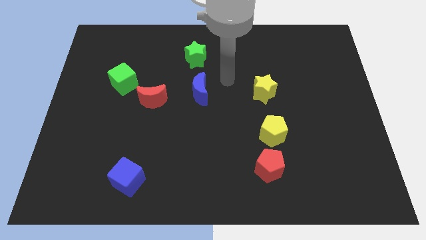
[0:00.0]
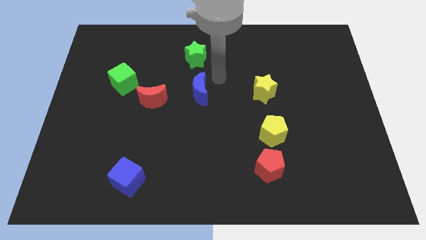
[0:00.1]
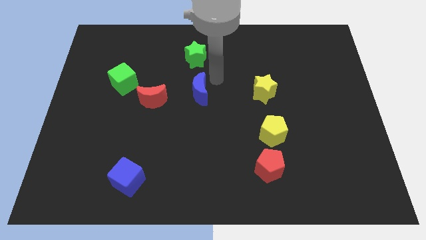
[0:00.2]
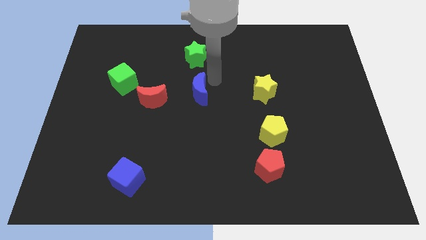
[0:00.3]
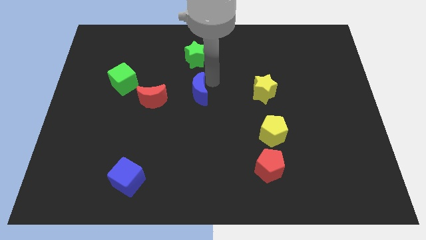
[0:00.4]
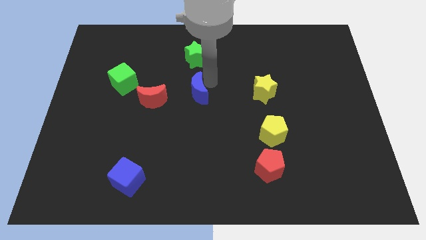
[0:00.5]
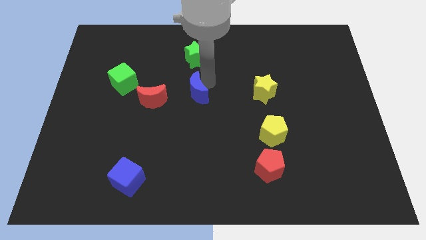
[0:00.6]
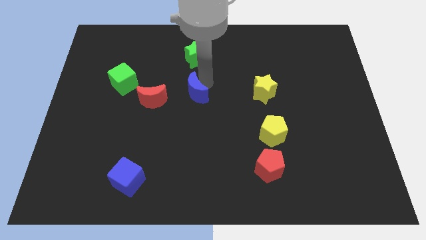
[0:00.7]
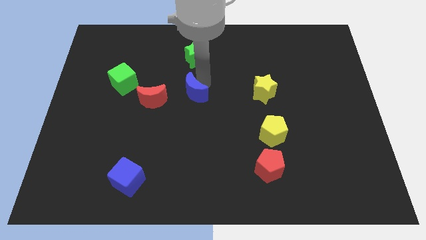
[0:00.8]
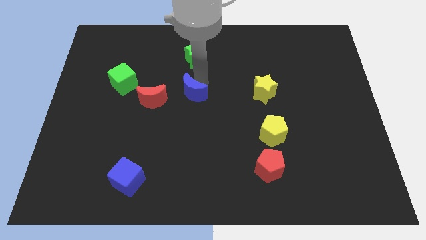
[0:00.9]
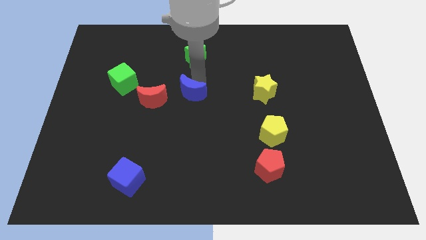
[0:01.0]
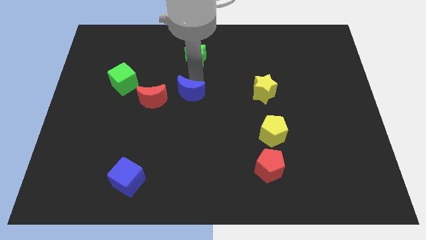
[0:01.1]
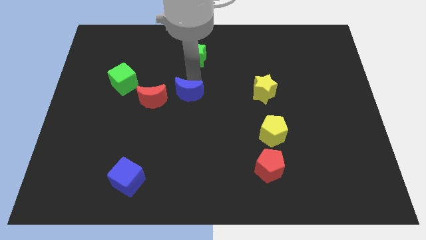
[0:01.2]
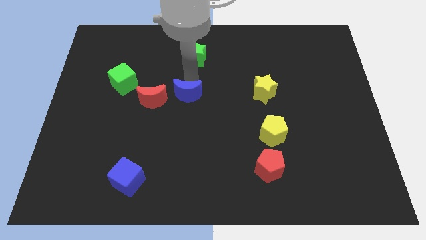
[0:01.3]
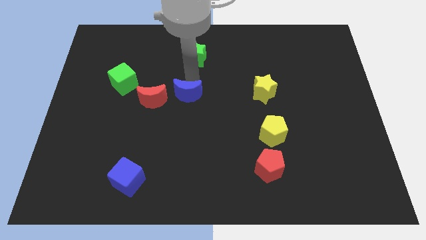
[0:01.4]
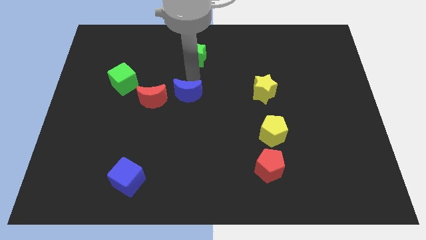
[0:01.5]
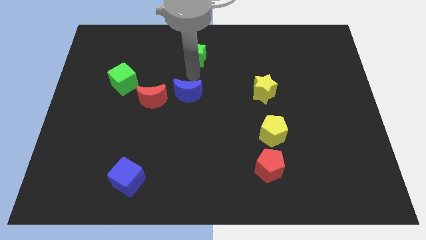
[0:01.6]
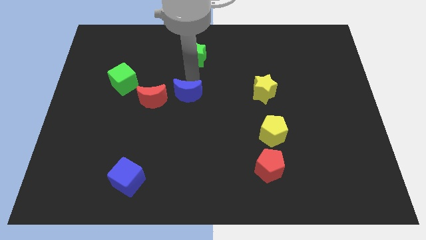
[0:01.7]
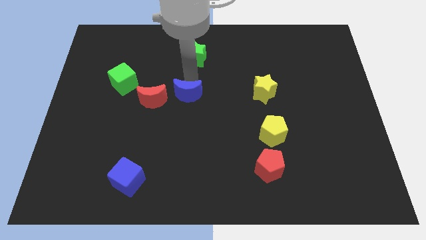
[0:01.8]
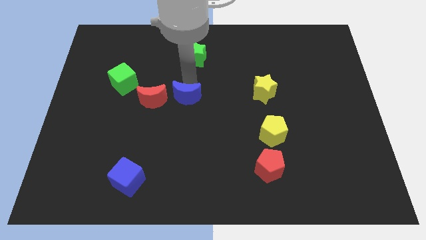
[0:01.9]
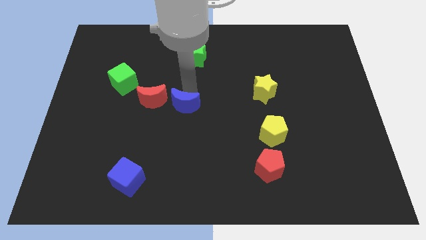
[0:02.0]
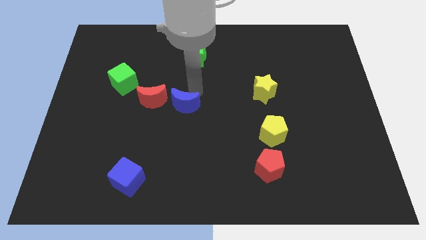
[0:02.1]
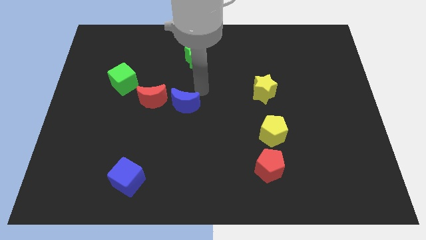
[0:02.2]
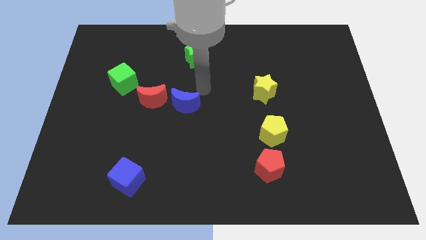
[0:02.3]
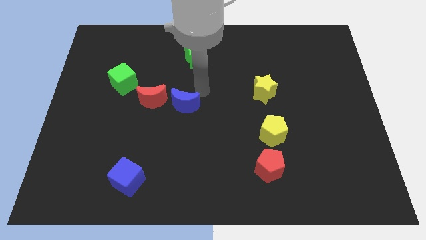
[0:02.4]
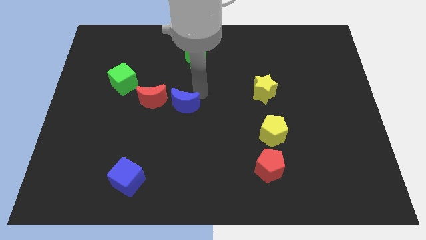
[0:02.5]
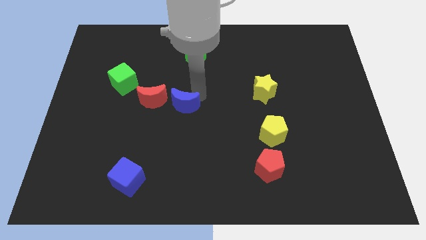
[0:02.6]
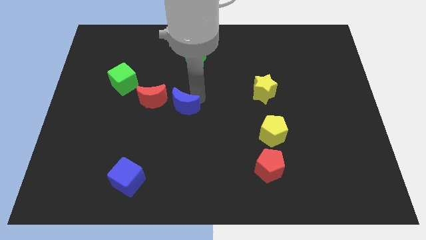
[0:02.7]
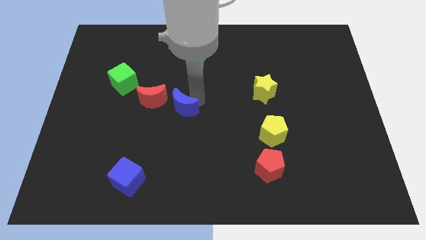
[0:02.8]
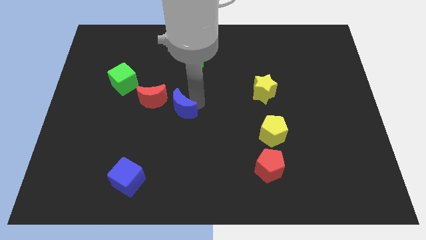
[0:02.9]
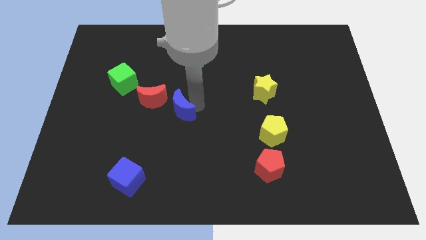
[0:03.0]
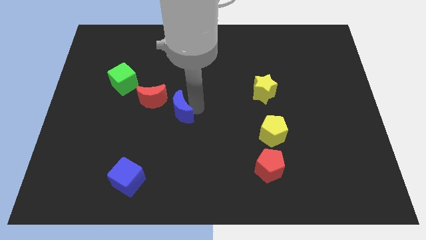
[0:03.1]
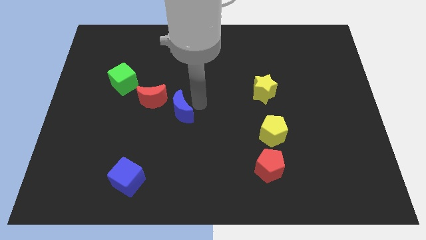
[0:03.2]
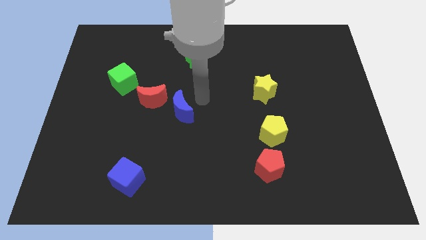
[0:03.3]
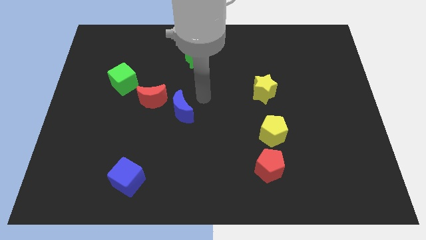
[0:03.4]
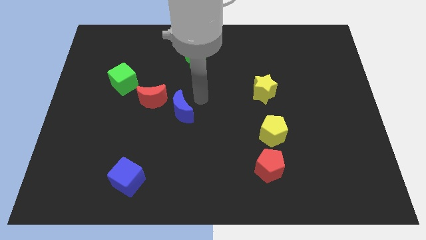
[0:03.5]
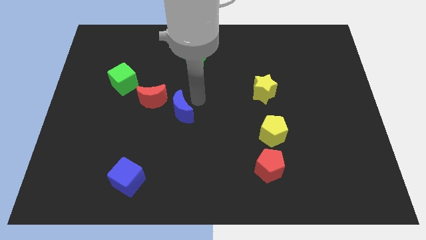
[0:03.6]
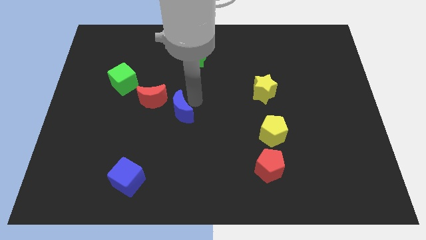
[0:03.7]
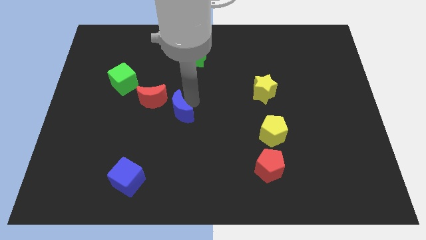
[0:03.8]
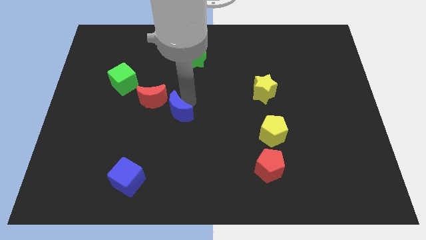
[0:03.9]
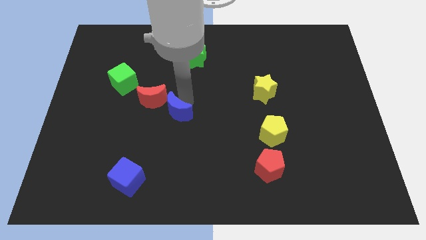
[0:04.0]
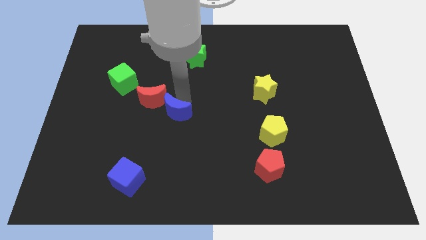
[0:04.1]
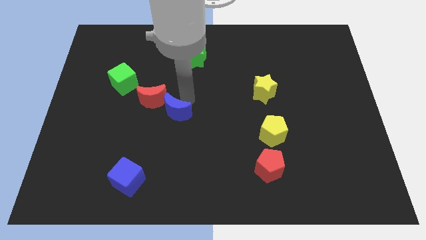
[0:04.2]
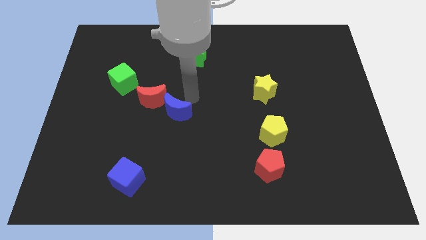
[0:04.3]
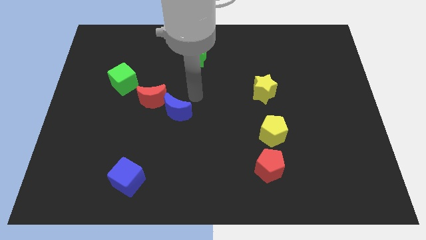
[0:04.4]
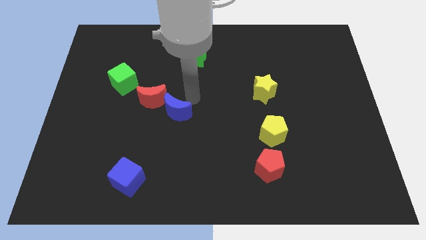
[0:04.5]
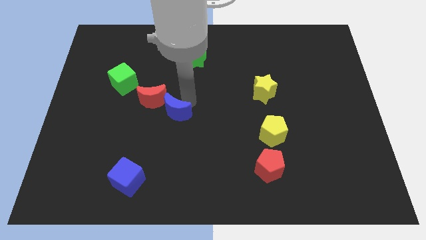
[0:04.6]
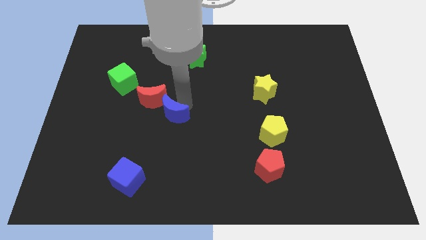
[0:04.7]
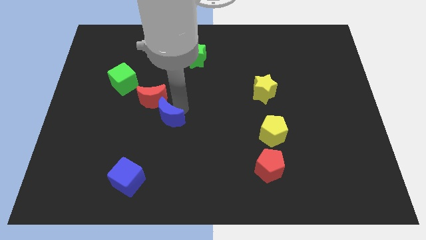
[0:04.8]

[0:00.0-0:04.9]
put the blue moon below the red moon

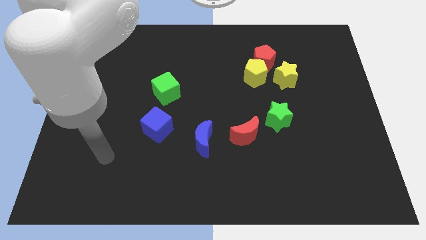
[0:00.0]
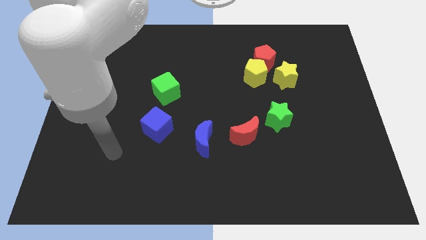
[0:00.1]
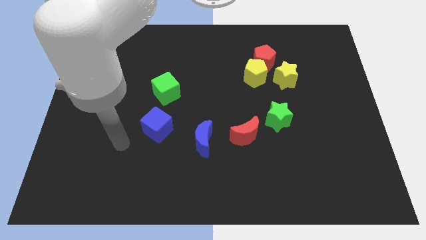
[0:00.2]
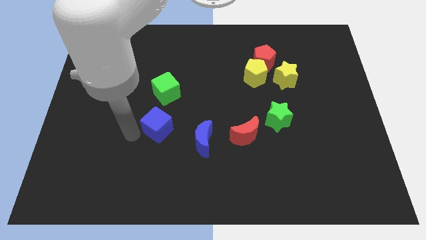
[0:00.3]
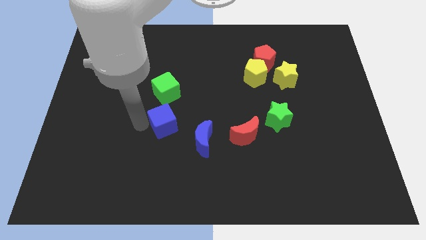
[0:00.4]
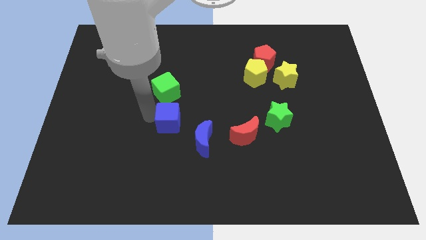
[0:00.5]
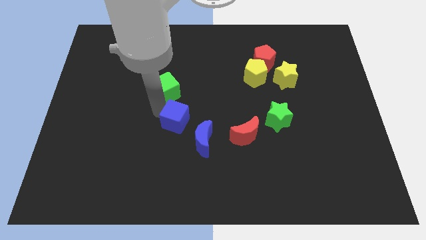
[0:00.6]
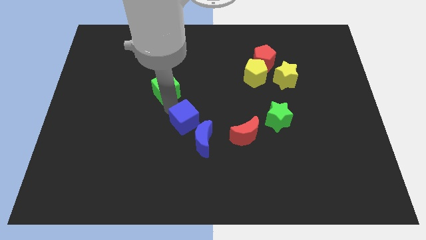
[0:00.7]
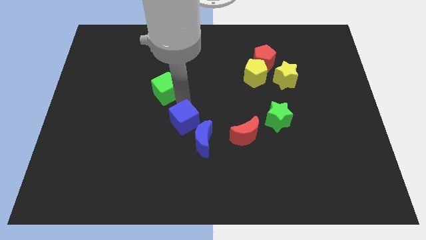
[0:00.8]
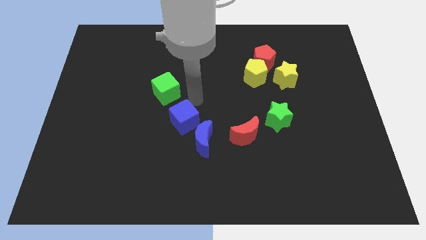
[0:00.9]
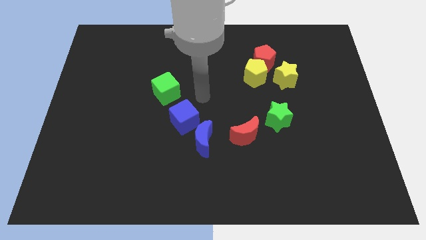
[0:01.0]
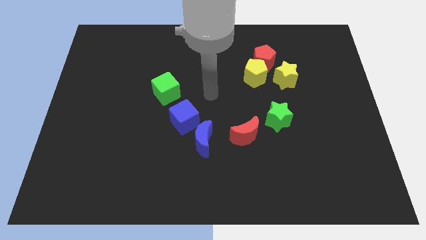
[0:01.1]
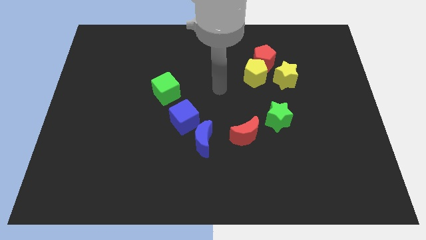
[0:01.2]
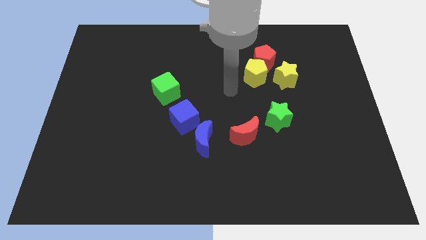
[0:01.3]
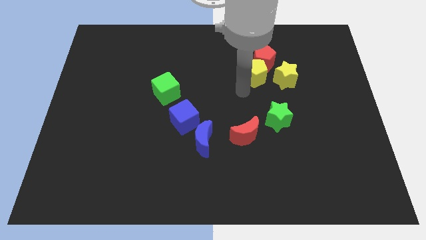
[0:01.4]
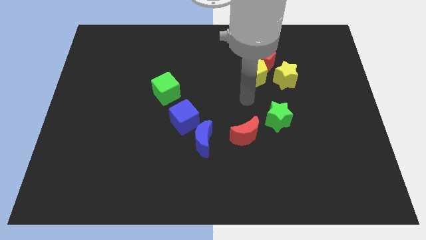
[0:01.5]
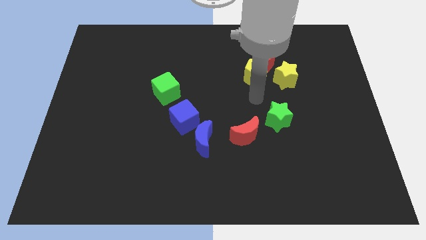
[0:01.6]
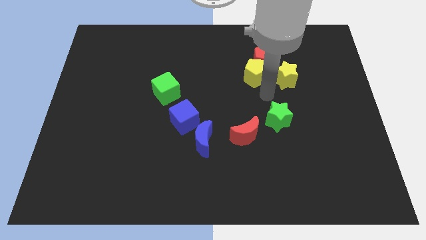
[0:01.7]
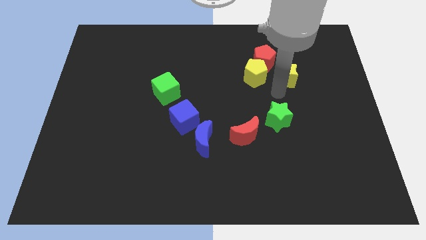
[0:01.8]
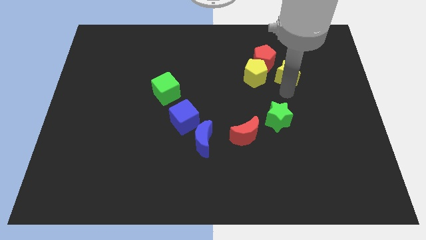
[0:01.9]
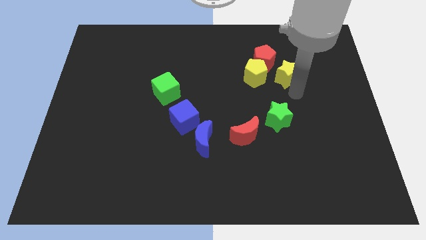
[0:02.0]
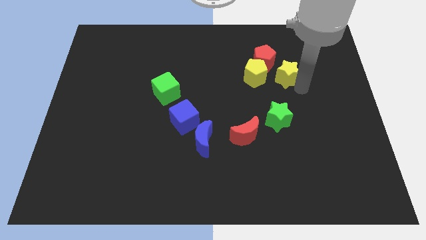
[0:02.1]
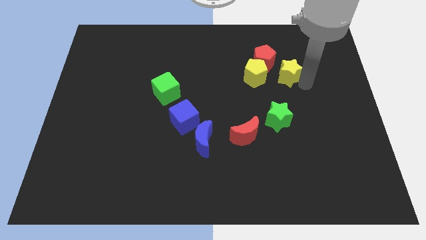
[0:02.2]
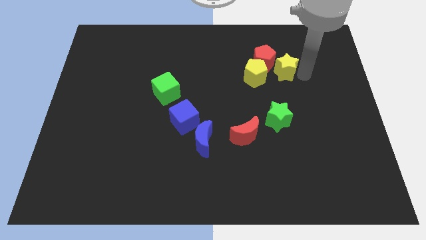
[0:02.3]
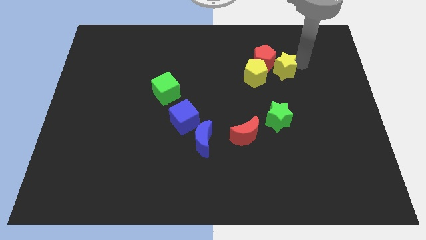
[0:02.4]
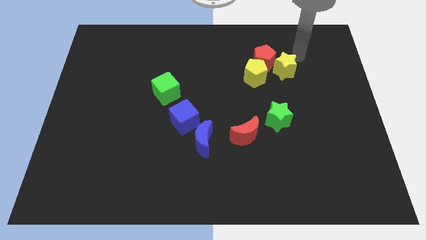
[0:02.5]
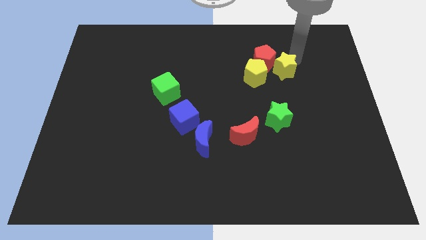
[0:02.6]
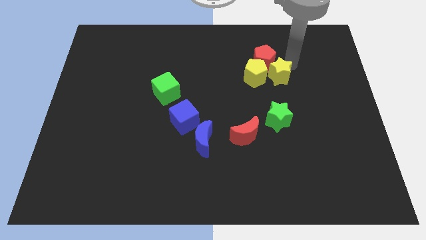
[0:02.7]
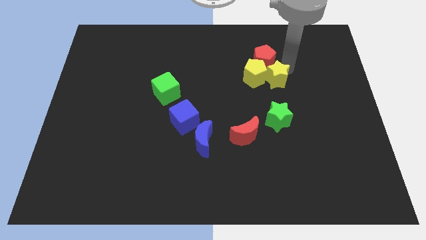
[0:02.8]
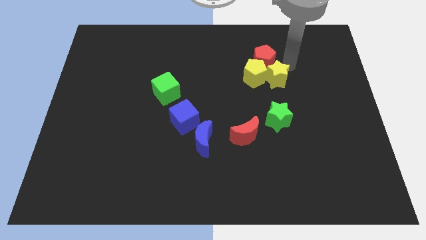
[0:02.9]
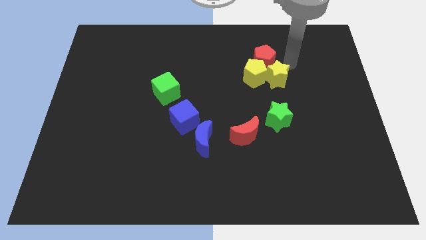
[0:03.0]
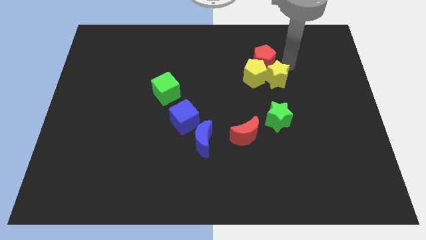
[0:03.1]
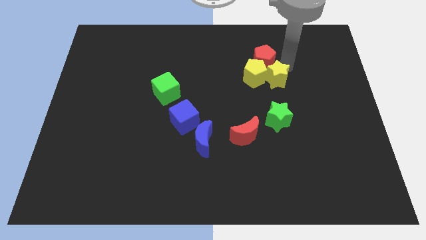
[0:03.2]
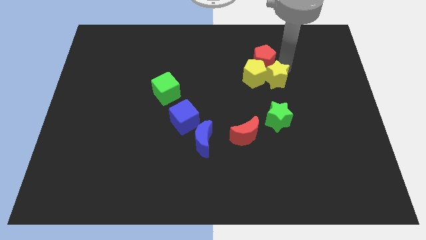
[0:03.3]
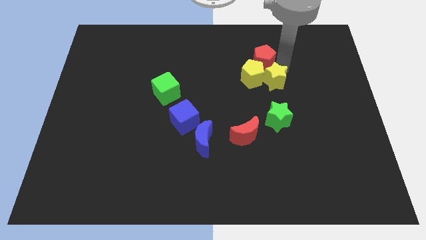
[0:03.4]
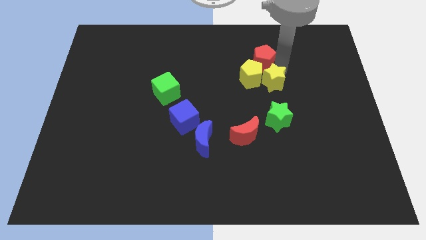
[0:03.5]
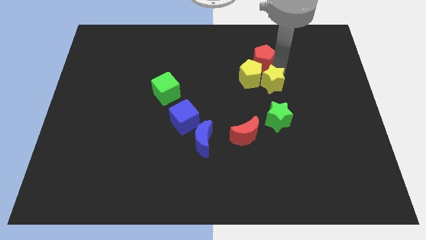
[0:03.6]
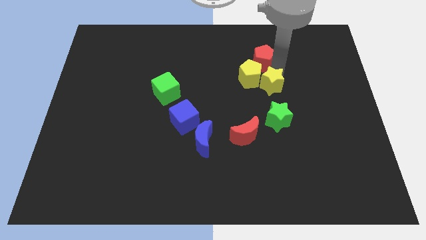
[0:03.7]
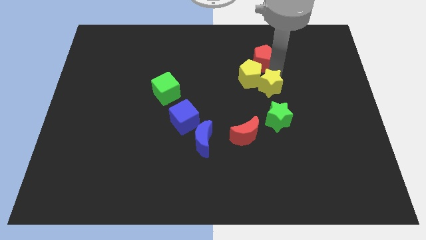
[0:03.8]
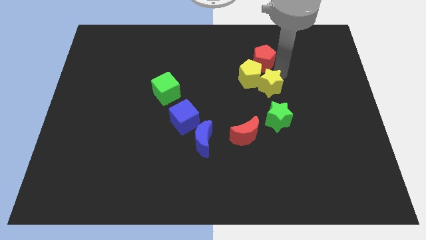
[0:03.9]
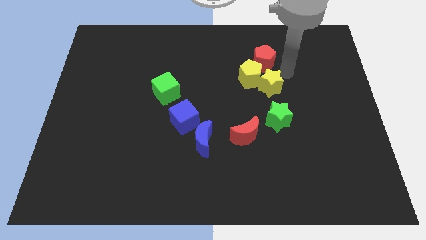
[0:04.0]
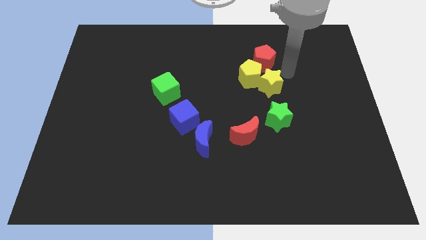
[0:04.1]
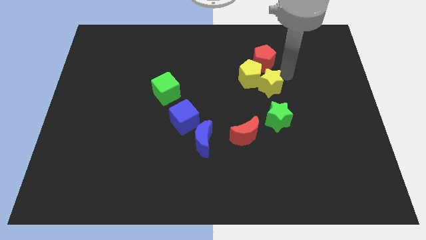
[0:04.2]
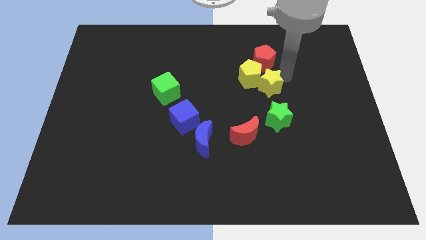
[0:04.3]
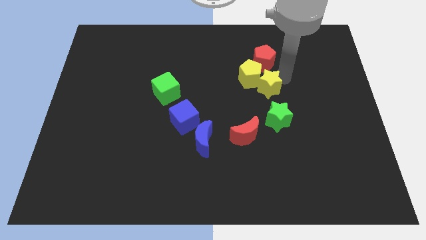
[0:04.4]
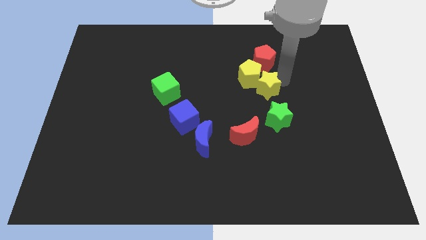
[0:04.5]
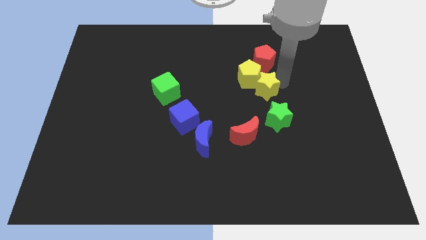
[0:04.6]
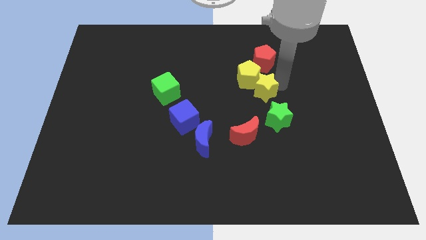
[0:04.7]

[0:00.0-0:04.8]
slide the yellow star to the top left of the green star
